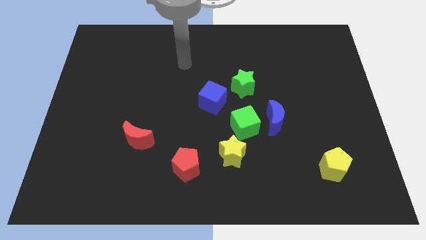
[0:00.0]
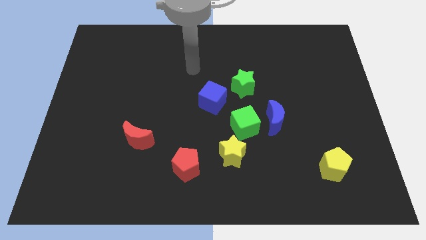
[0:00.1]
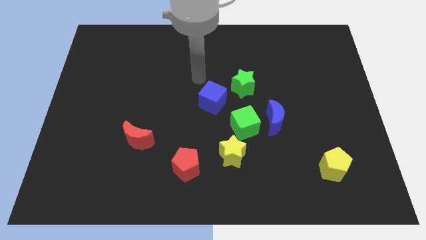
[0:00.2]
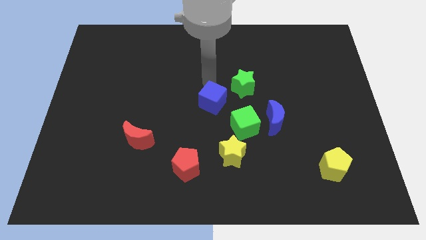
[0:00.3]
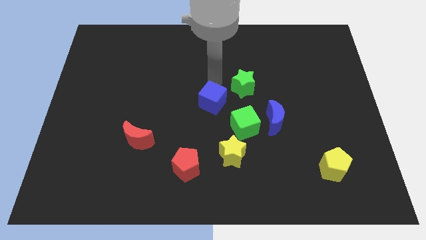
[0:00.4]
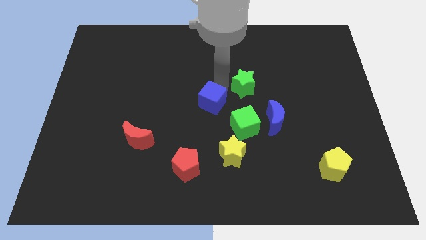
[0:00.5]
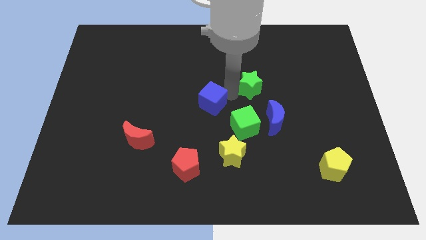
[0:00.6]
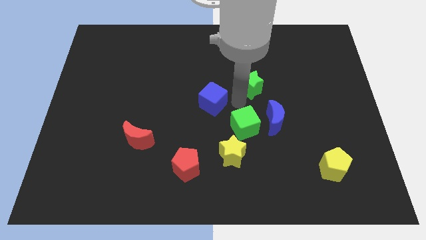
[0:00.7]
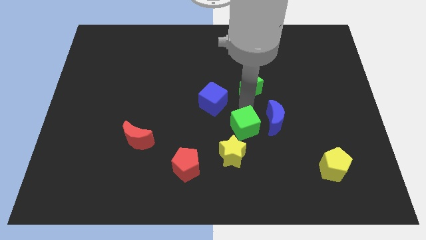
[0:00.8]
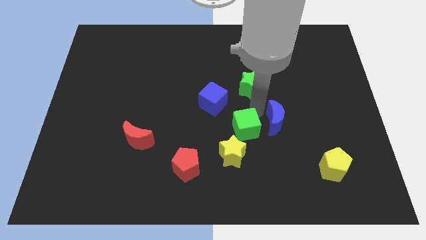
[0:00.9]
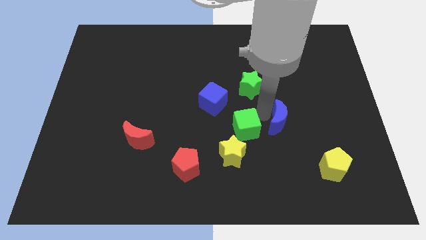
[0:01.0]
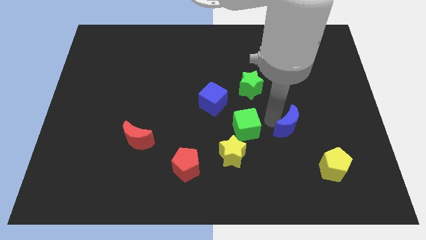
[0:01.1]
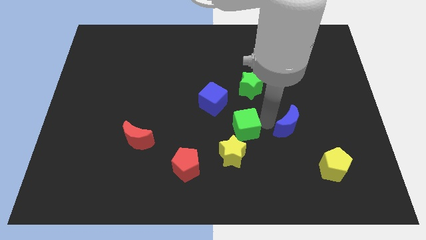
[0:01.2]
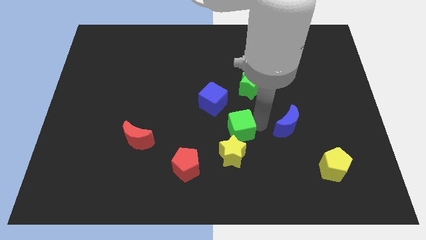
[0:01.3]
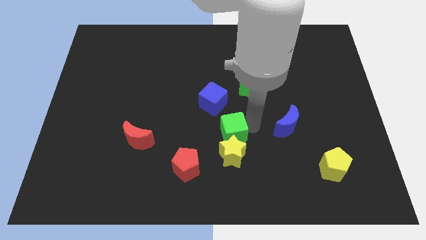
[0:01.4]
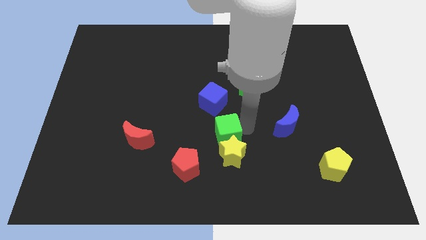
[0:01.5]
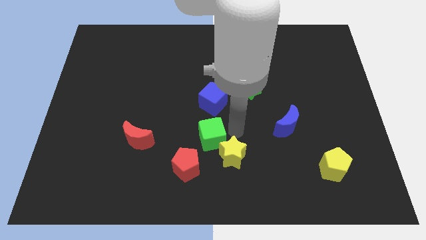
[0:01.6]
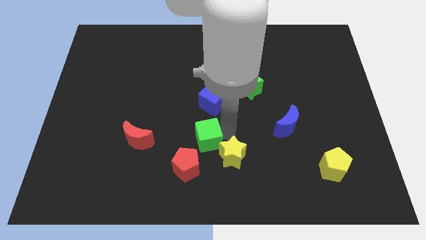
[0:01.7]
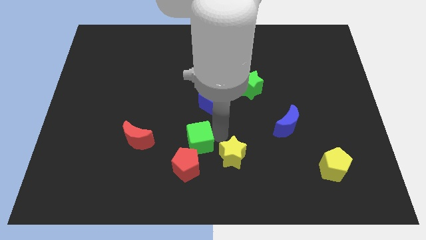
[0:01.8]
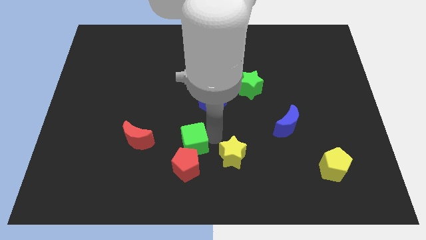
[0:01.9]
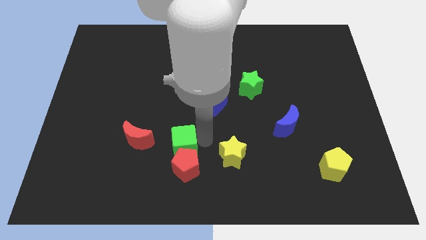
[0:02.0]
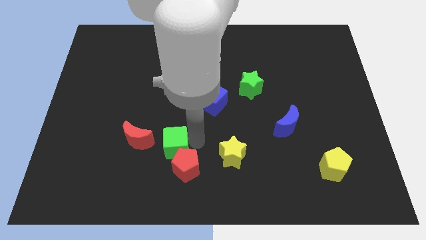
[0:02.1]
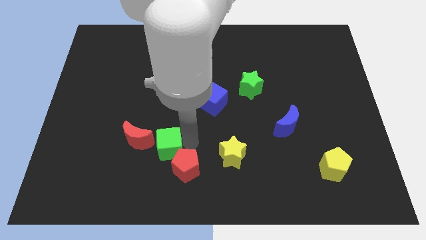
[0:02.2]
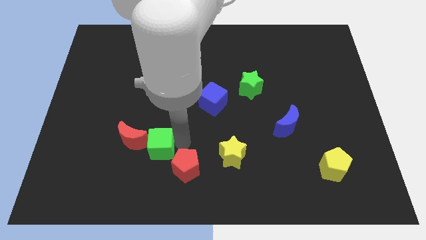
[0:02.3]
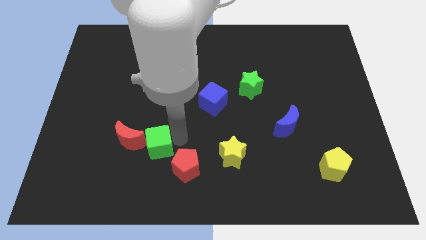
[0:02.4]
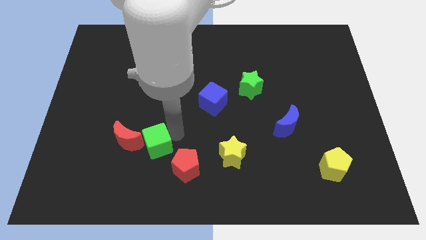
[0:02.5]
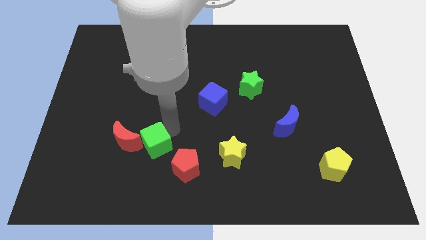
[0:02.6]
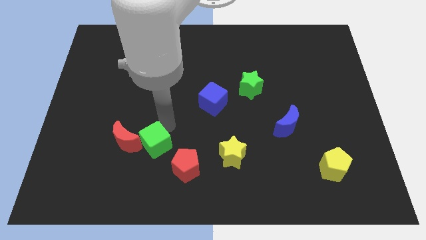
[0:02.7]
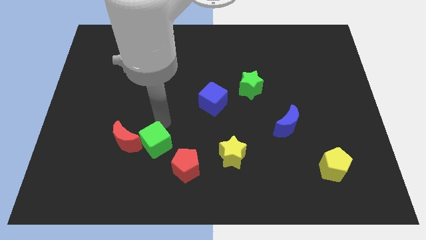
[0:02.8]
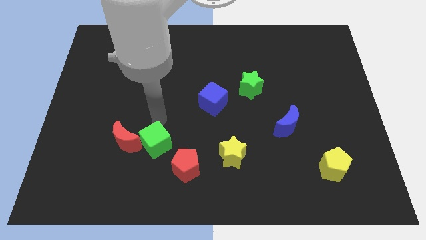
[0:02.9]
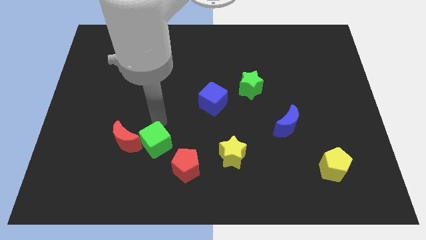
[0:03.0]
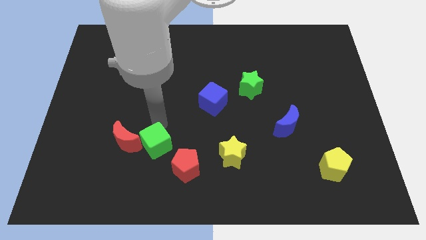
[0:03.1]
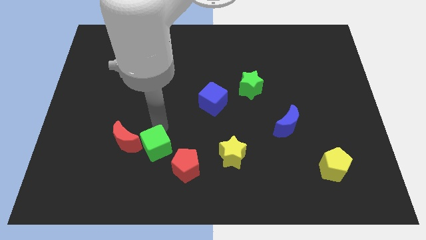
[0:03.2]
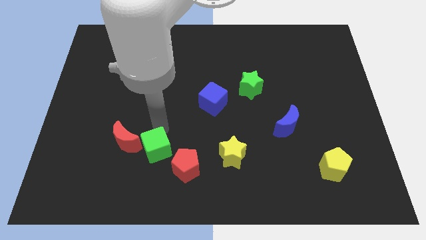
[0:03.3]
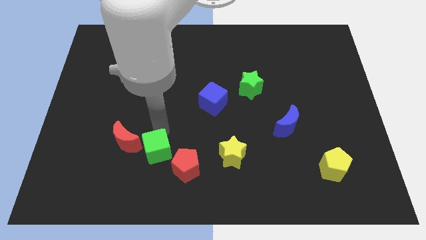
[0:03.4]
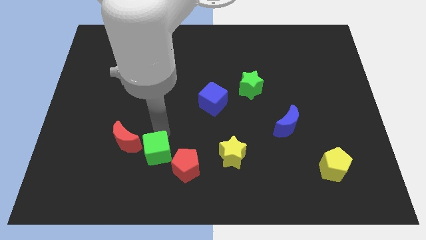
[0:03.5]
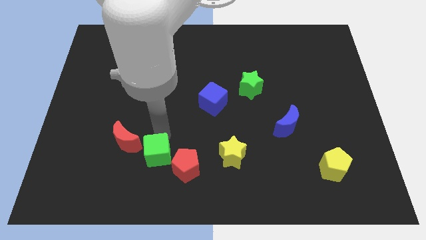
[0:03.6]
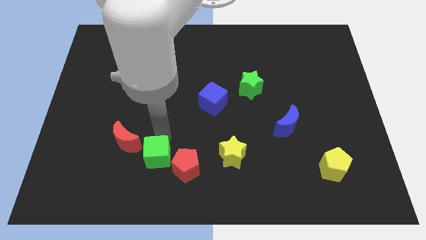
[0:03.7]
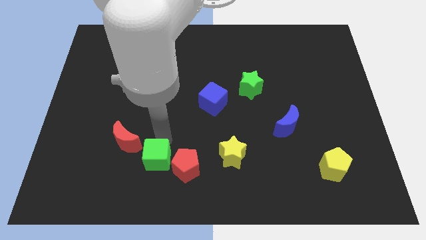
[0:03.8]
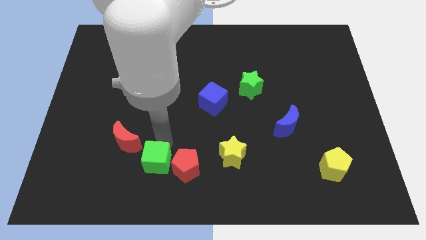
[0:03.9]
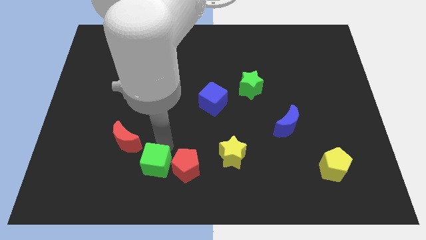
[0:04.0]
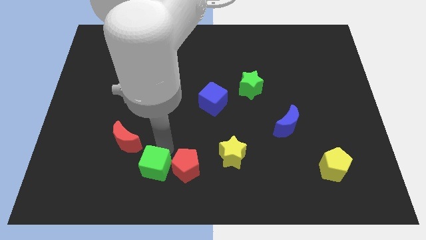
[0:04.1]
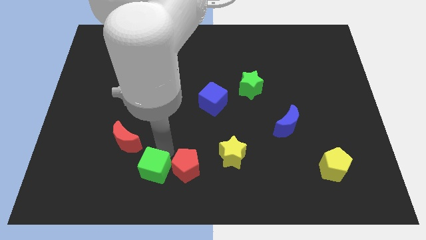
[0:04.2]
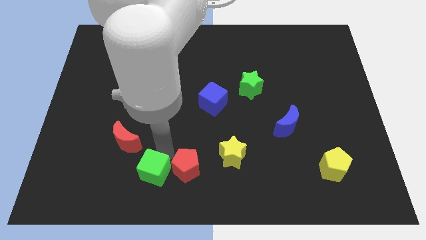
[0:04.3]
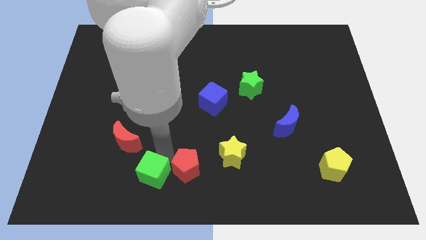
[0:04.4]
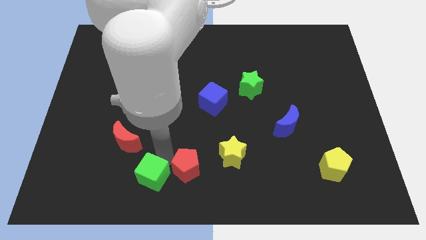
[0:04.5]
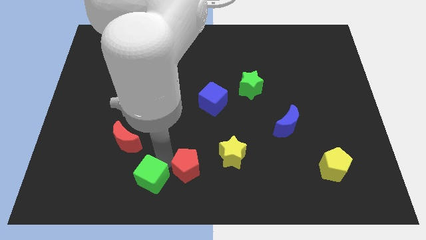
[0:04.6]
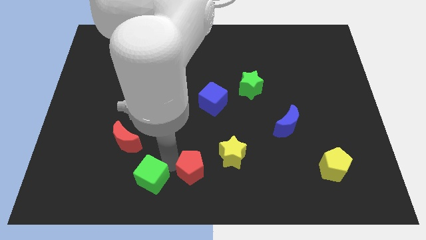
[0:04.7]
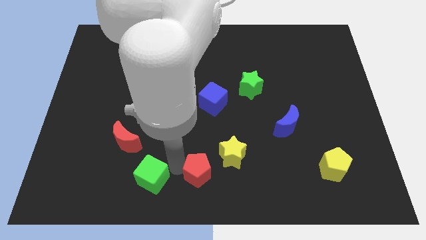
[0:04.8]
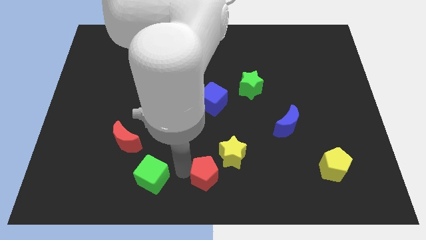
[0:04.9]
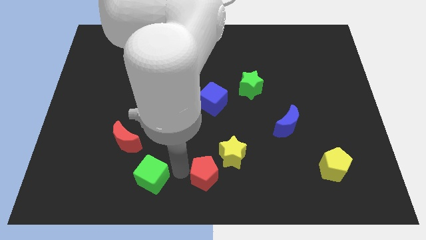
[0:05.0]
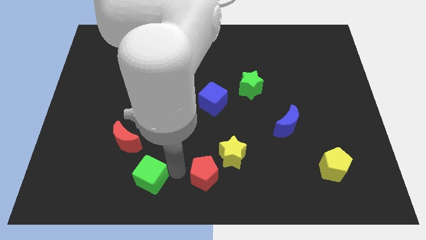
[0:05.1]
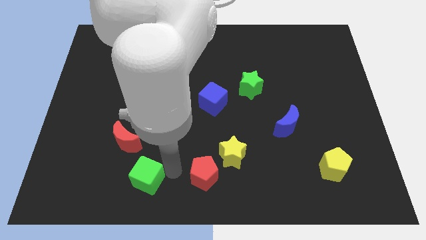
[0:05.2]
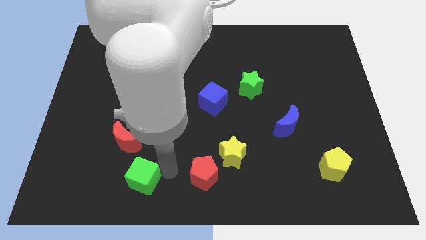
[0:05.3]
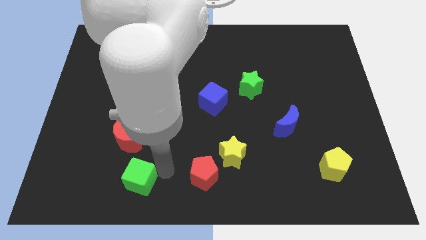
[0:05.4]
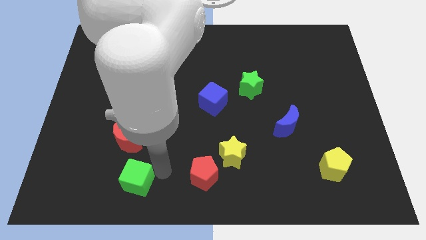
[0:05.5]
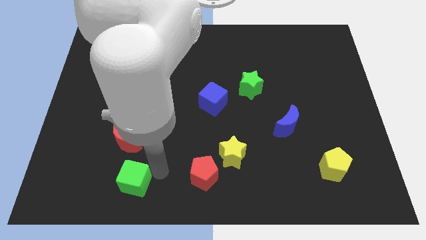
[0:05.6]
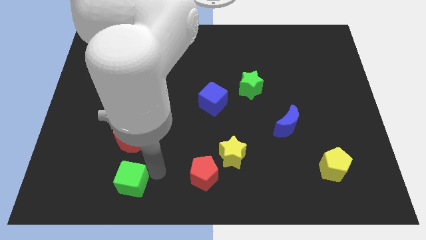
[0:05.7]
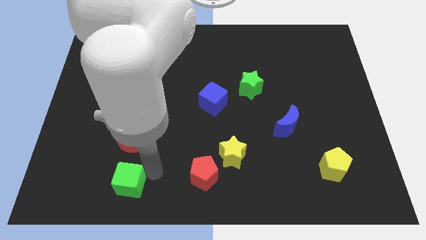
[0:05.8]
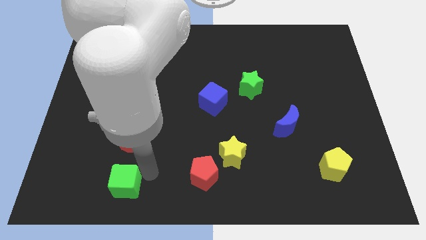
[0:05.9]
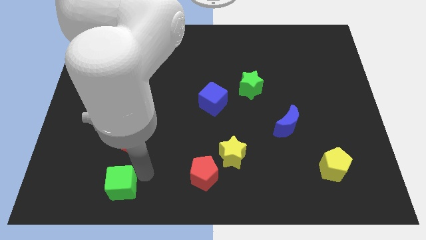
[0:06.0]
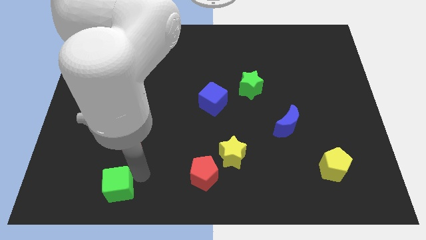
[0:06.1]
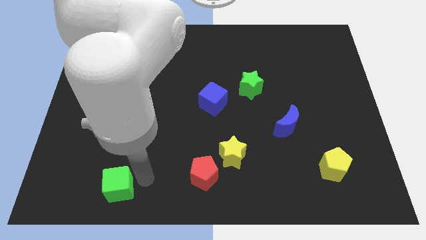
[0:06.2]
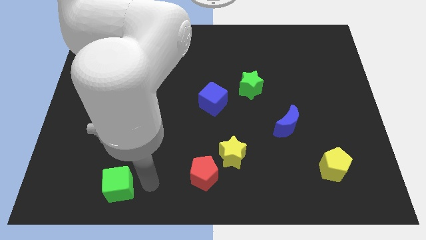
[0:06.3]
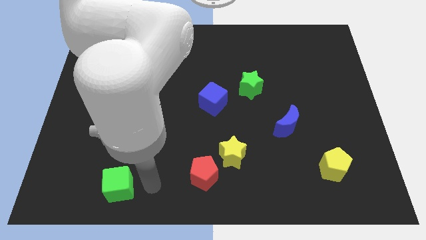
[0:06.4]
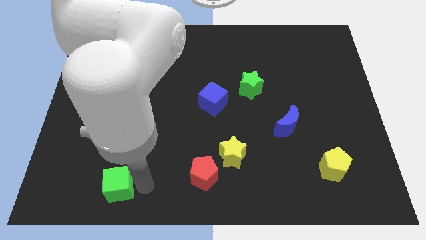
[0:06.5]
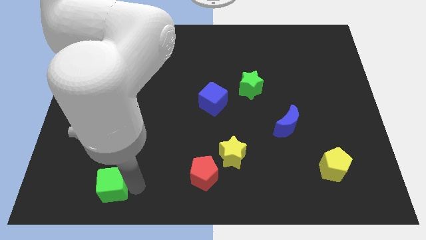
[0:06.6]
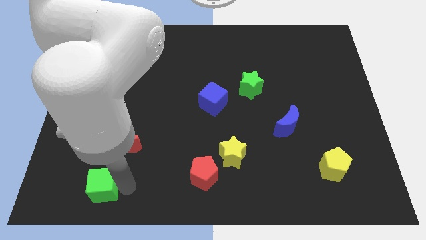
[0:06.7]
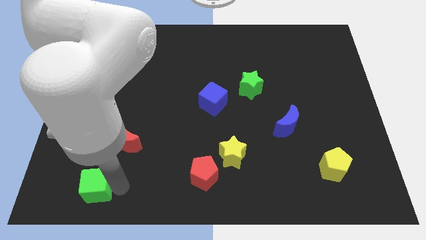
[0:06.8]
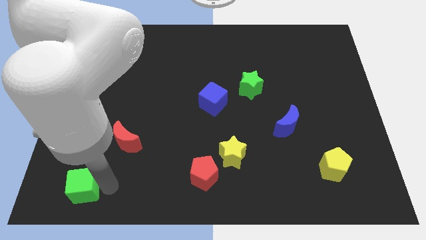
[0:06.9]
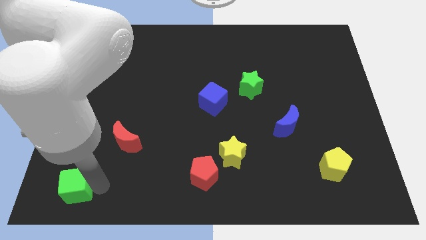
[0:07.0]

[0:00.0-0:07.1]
put the green cube to the bottom left corner

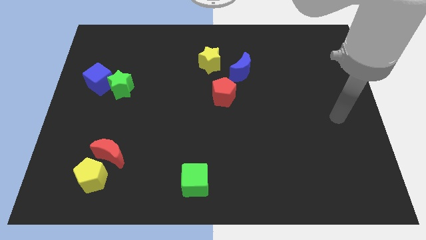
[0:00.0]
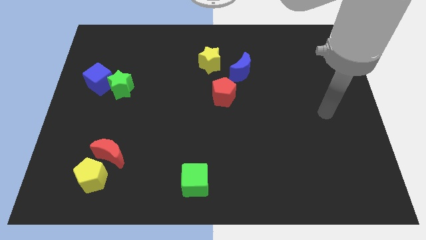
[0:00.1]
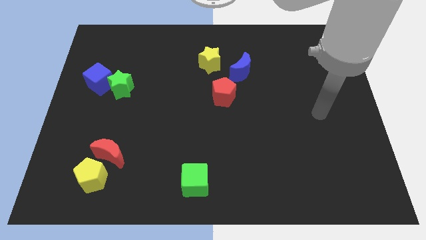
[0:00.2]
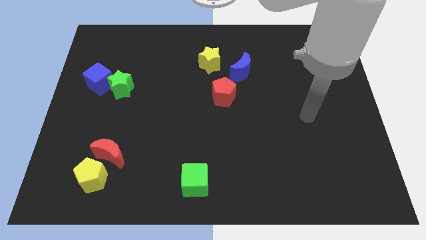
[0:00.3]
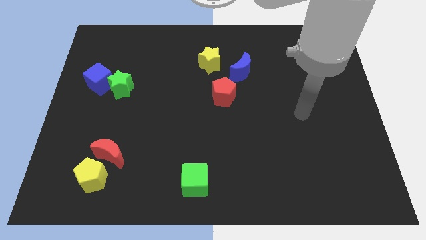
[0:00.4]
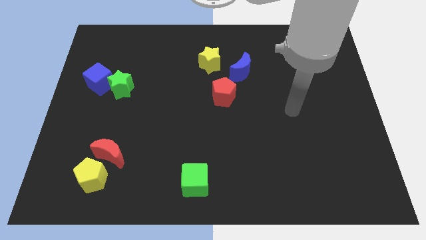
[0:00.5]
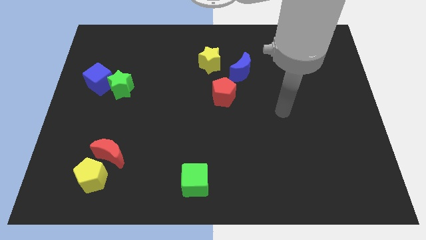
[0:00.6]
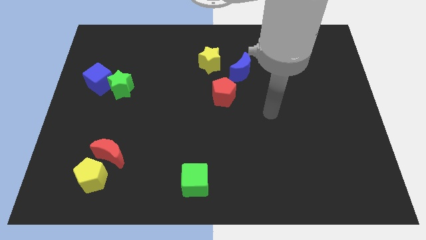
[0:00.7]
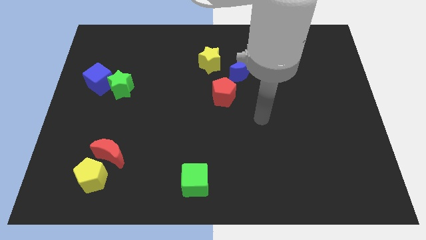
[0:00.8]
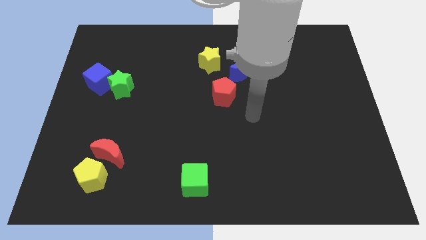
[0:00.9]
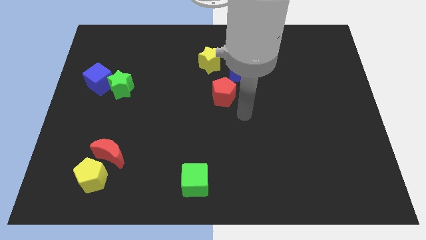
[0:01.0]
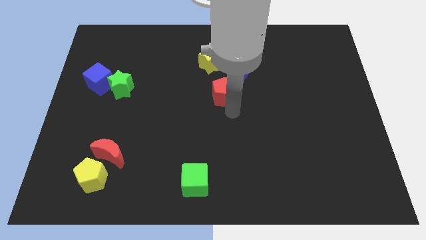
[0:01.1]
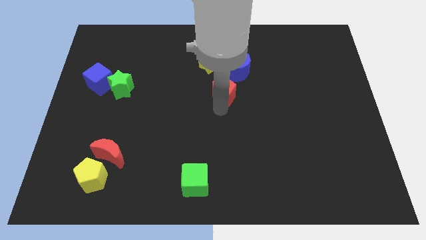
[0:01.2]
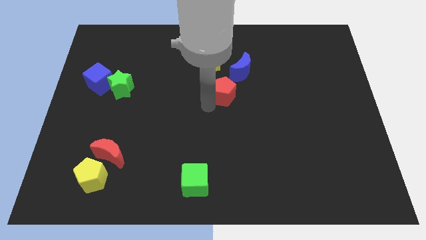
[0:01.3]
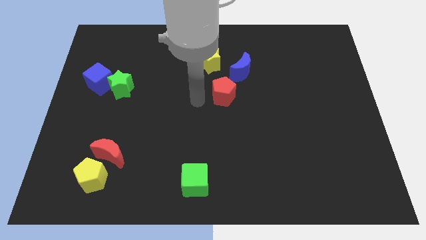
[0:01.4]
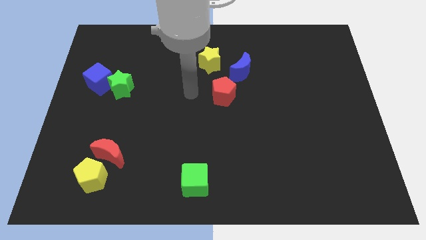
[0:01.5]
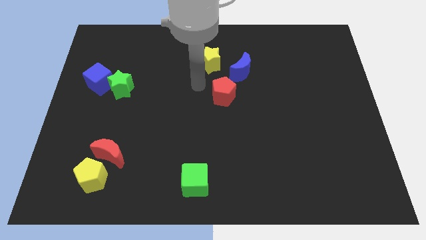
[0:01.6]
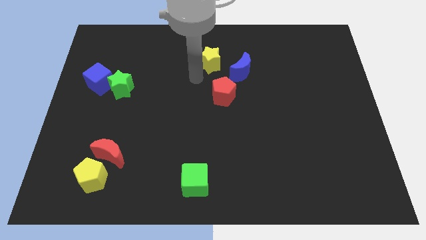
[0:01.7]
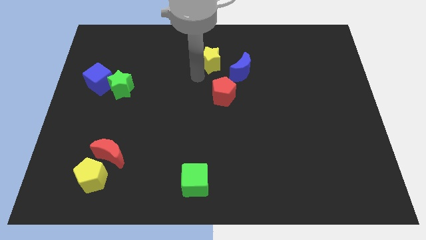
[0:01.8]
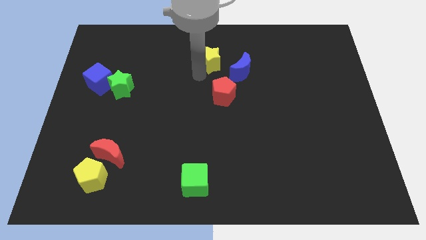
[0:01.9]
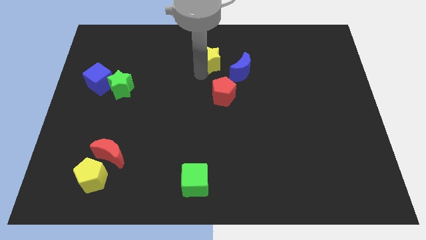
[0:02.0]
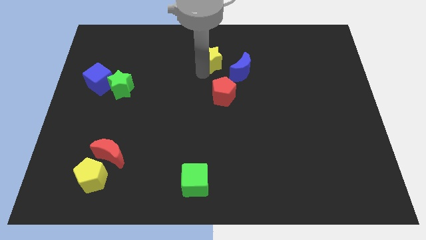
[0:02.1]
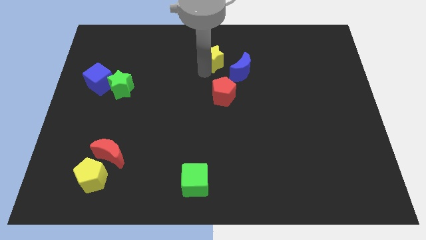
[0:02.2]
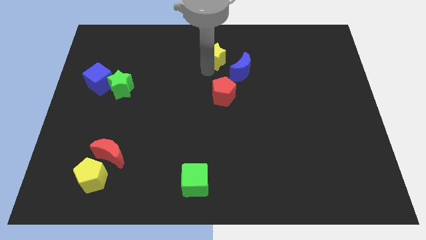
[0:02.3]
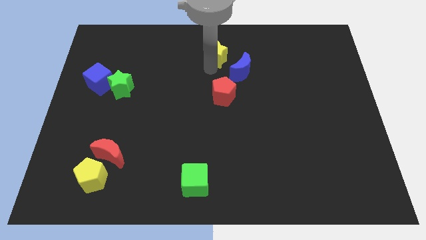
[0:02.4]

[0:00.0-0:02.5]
move the yellow star to the top
